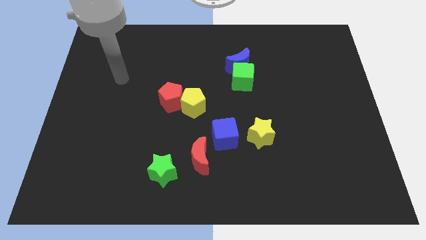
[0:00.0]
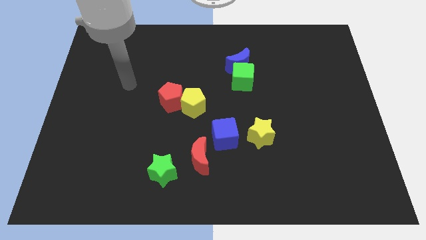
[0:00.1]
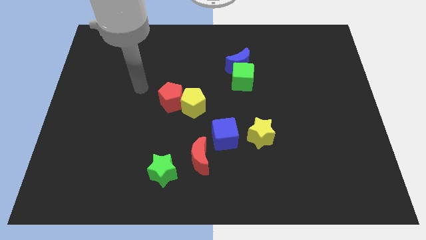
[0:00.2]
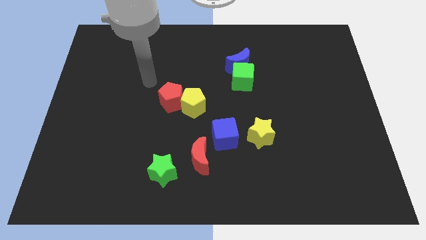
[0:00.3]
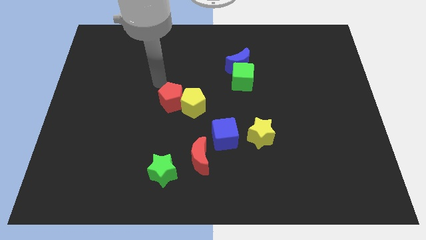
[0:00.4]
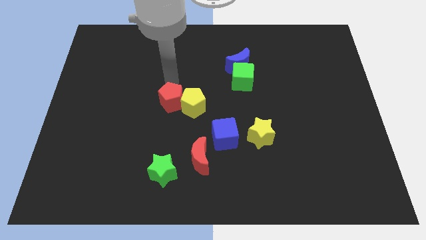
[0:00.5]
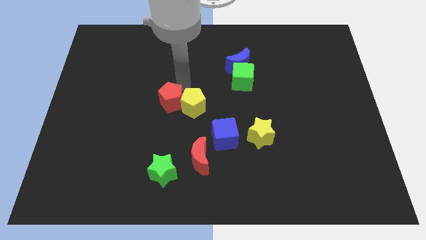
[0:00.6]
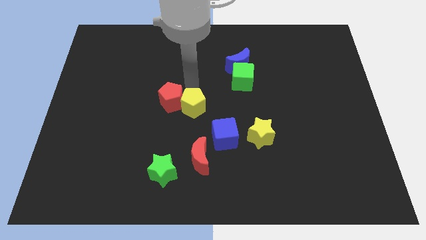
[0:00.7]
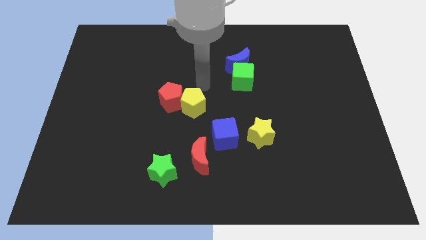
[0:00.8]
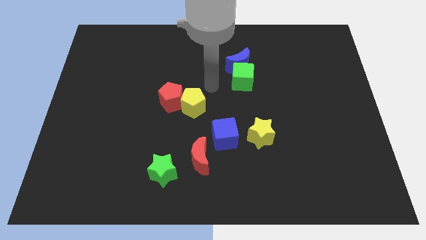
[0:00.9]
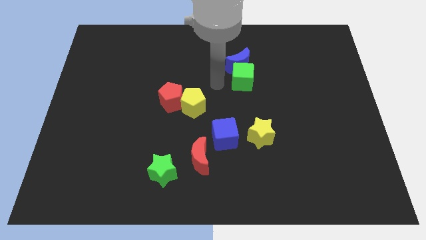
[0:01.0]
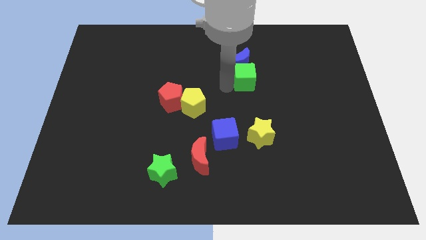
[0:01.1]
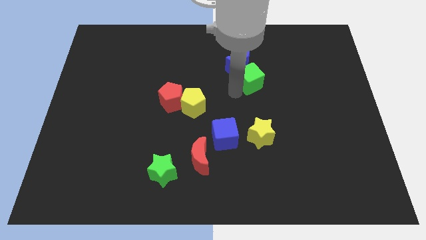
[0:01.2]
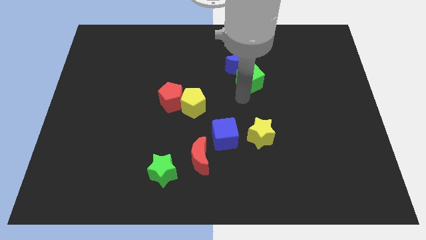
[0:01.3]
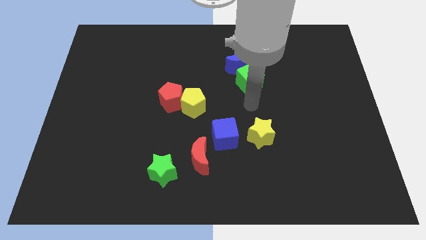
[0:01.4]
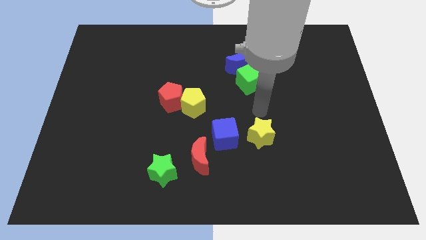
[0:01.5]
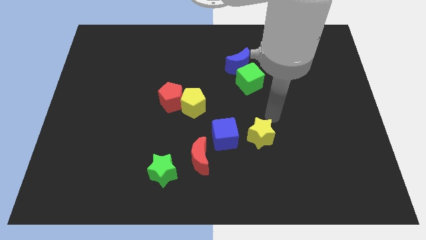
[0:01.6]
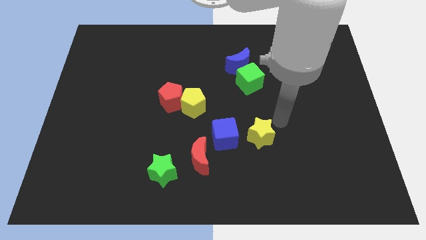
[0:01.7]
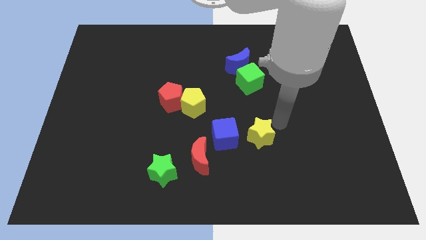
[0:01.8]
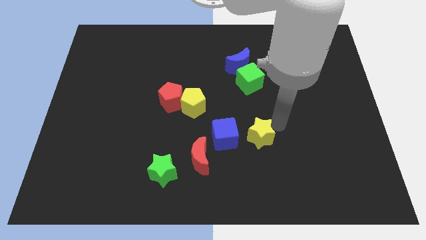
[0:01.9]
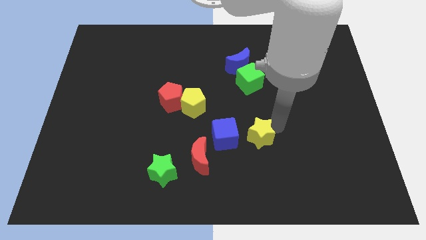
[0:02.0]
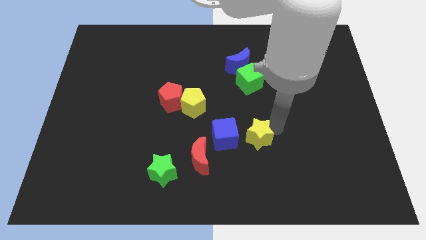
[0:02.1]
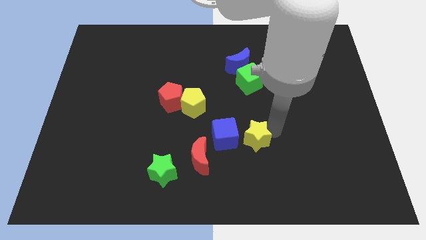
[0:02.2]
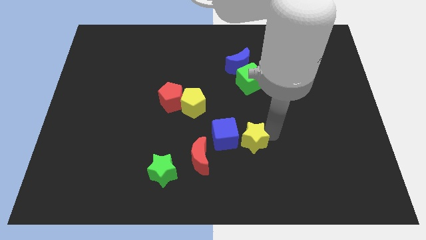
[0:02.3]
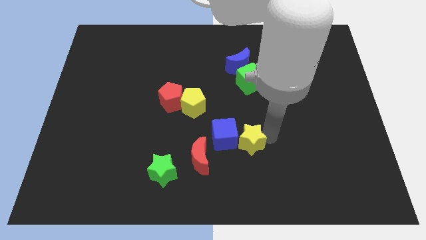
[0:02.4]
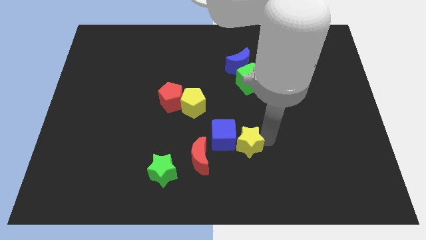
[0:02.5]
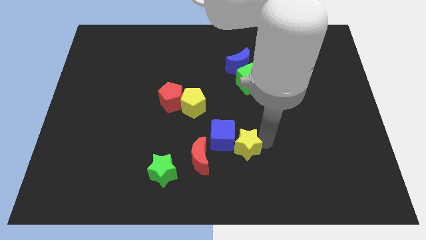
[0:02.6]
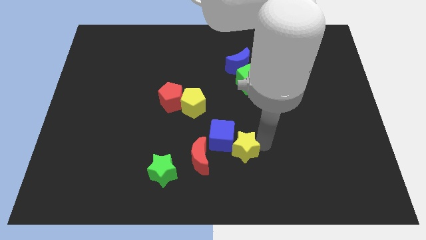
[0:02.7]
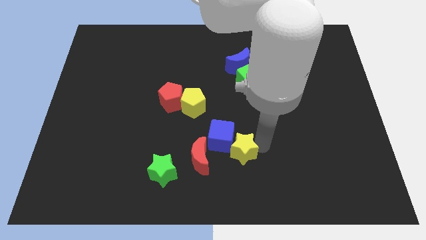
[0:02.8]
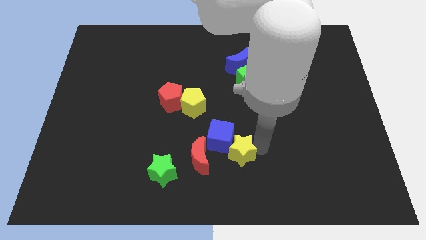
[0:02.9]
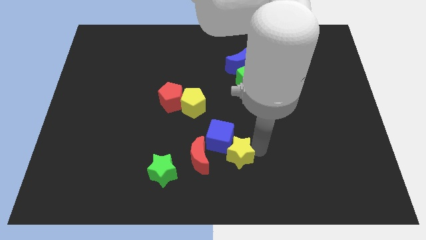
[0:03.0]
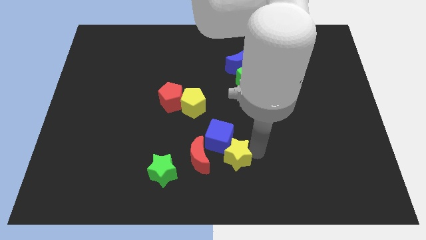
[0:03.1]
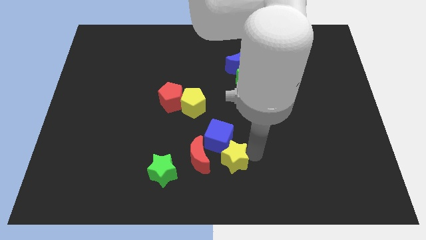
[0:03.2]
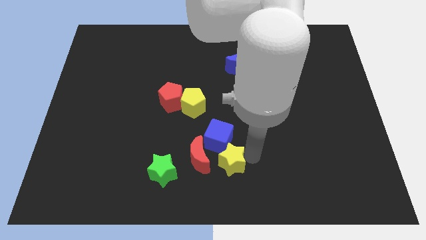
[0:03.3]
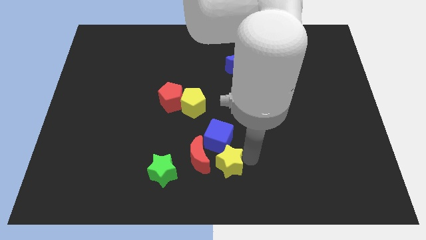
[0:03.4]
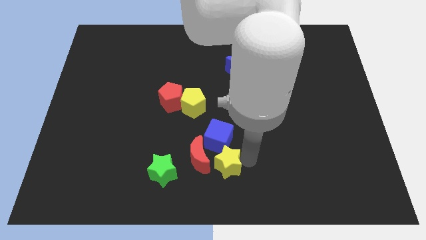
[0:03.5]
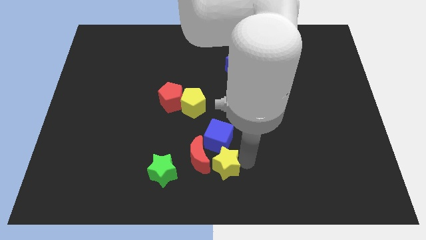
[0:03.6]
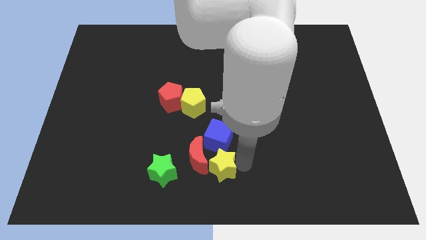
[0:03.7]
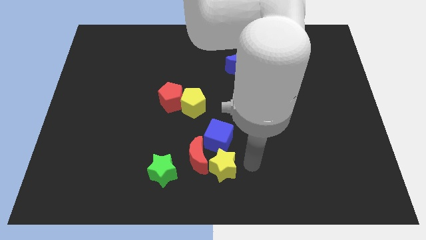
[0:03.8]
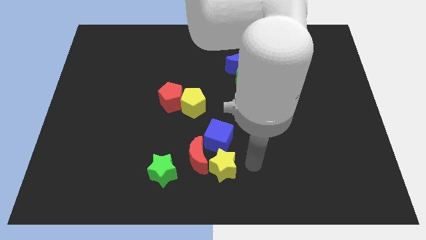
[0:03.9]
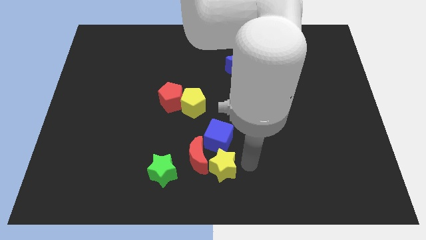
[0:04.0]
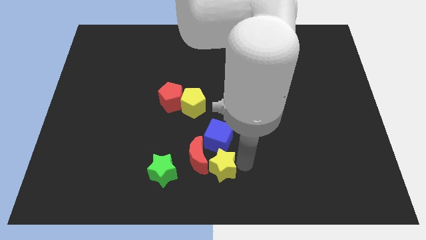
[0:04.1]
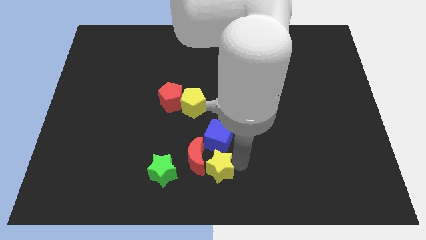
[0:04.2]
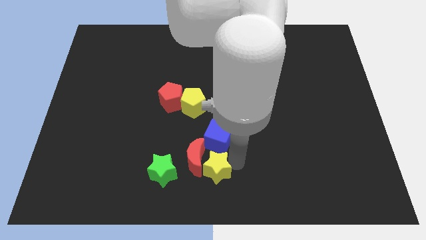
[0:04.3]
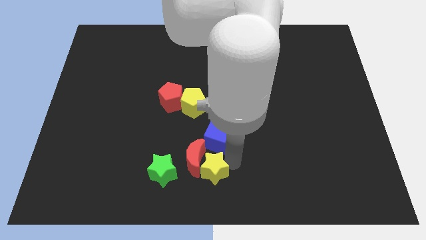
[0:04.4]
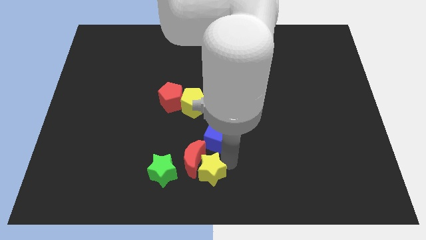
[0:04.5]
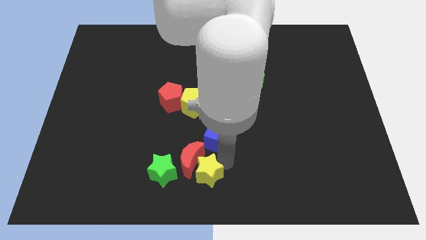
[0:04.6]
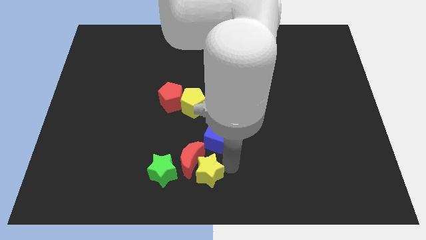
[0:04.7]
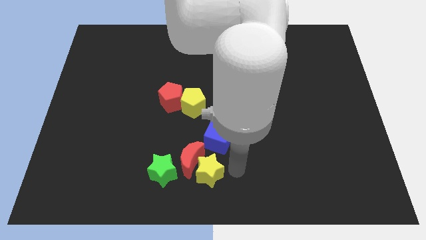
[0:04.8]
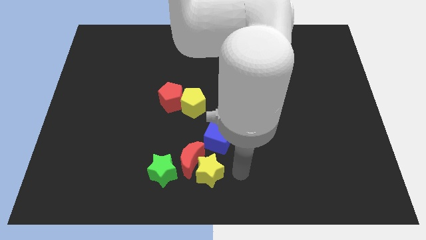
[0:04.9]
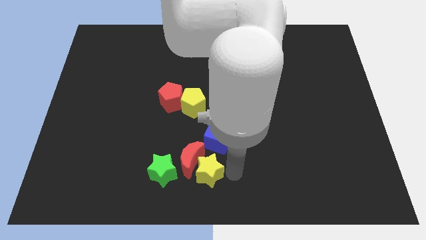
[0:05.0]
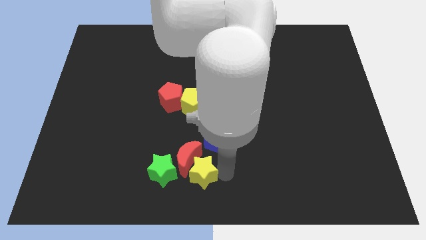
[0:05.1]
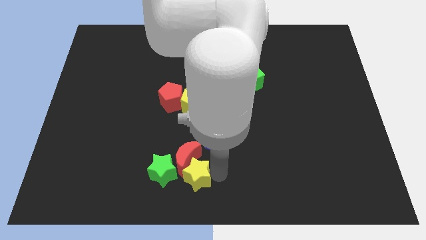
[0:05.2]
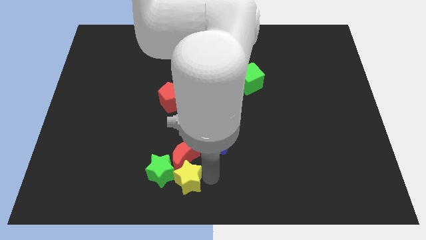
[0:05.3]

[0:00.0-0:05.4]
push the yellow star next to the green star

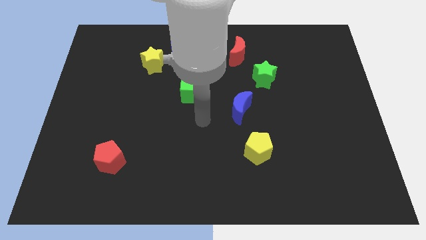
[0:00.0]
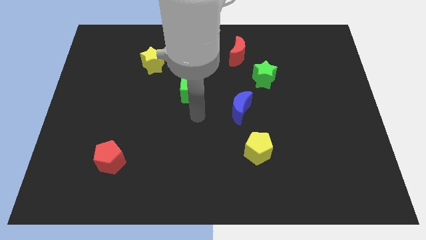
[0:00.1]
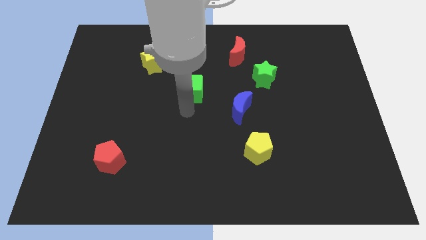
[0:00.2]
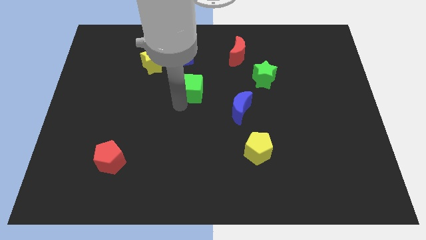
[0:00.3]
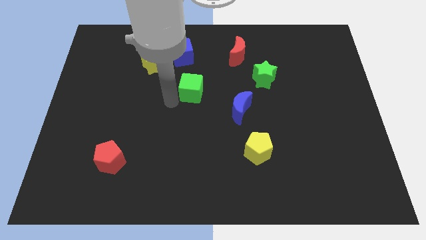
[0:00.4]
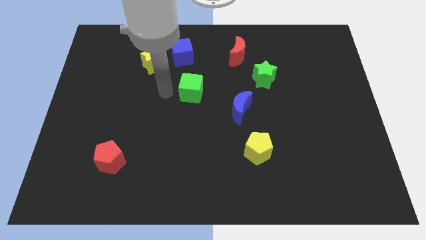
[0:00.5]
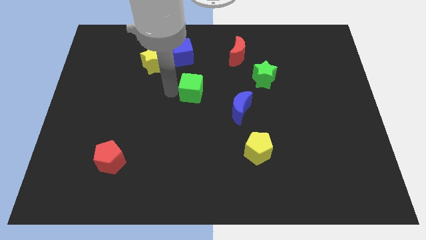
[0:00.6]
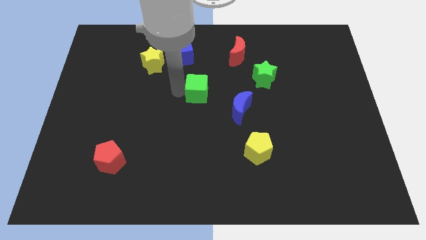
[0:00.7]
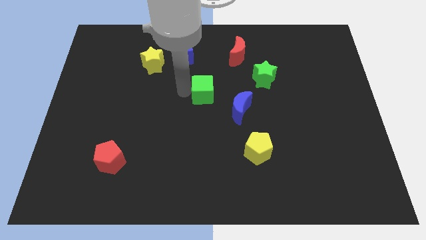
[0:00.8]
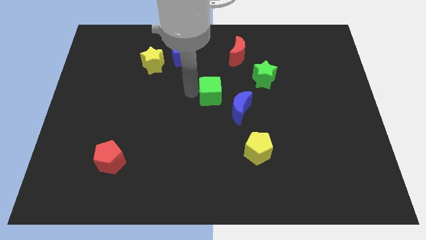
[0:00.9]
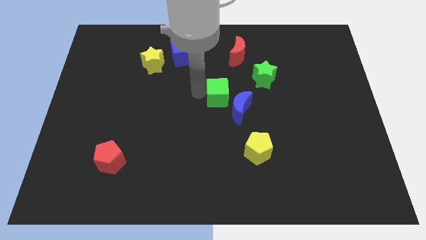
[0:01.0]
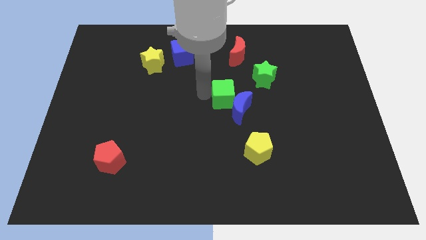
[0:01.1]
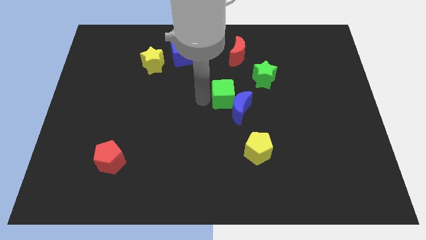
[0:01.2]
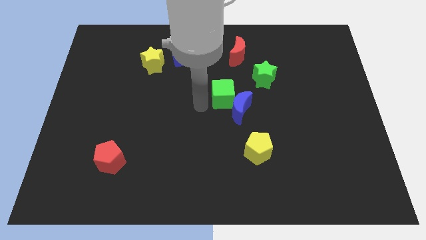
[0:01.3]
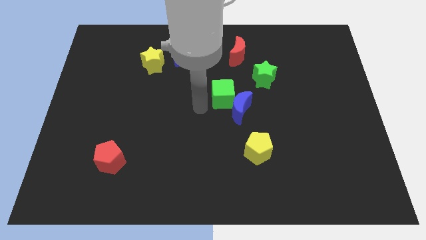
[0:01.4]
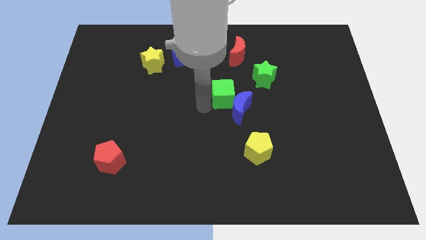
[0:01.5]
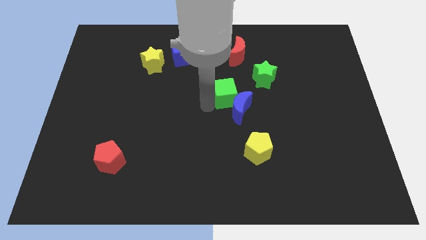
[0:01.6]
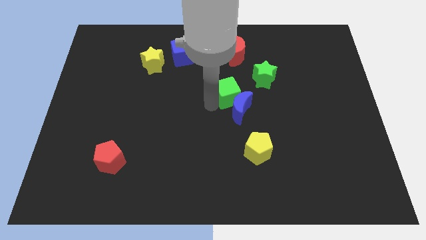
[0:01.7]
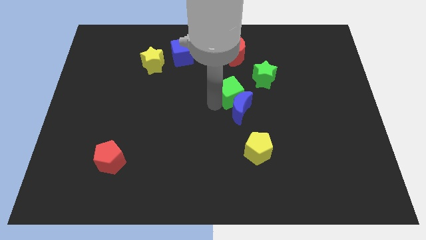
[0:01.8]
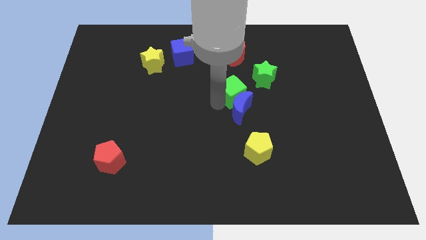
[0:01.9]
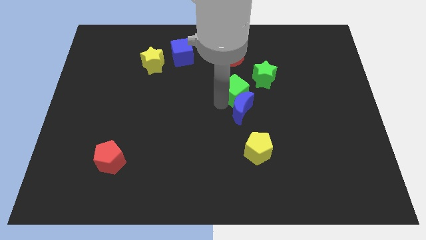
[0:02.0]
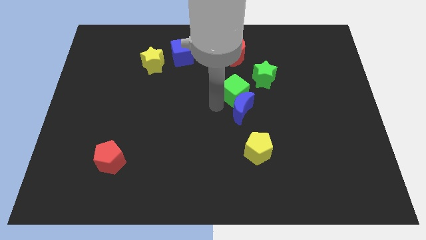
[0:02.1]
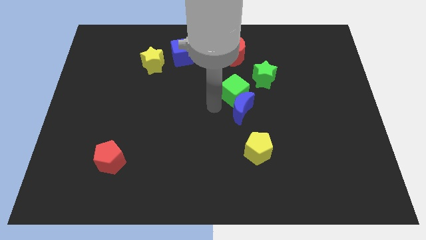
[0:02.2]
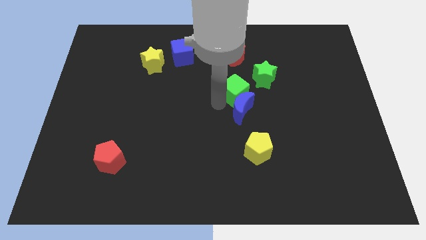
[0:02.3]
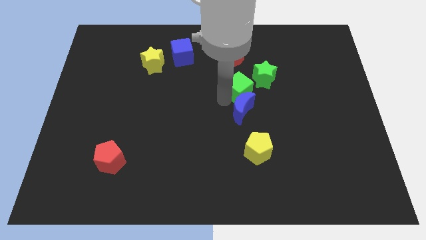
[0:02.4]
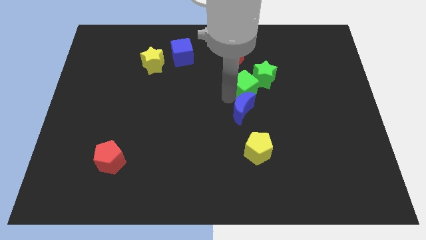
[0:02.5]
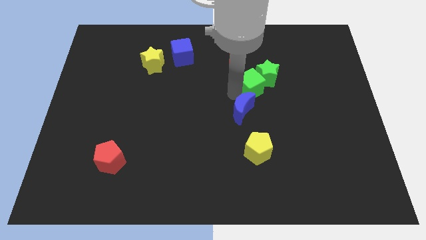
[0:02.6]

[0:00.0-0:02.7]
move the green cube towards the green star
